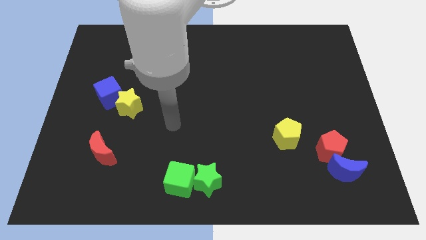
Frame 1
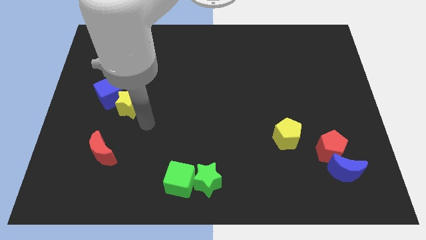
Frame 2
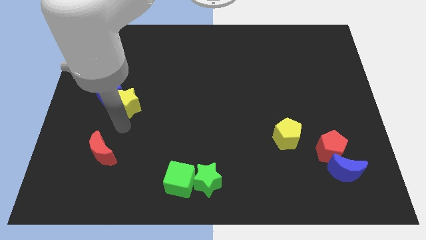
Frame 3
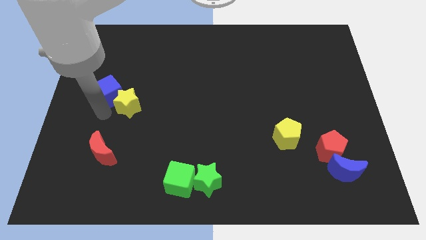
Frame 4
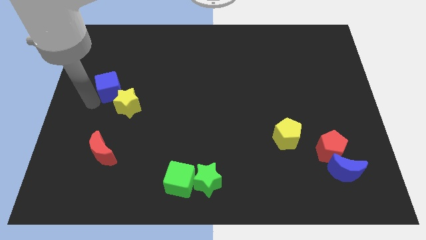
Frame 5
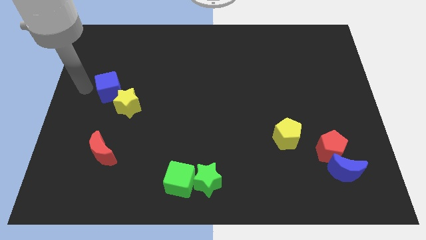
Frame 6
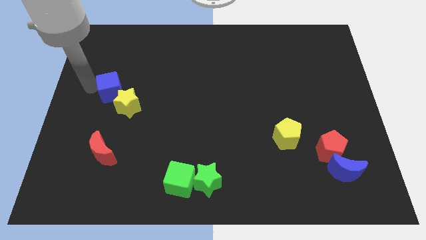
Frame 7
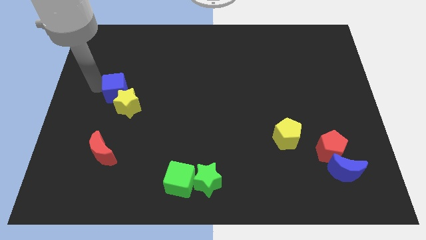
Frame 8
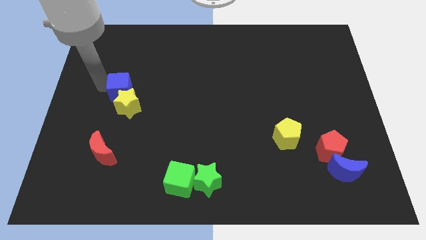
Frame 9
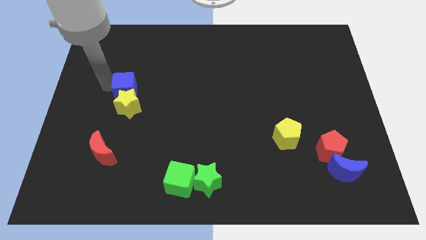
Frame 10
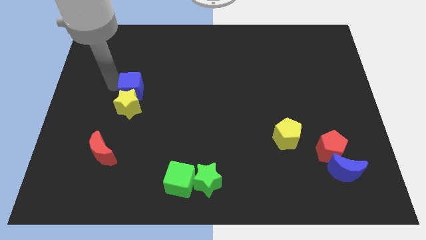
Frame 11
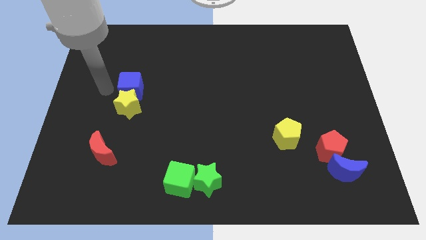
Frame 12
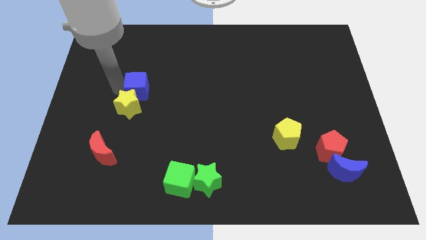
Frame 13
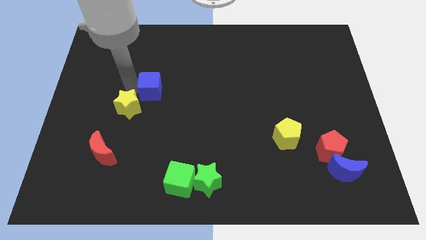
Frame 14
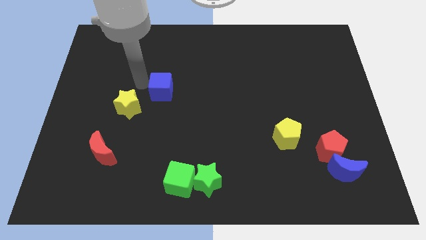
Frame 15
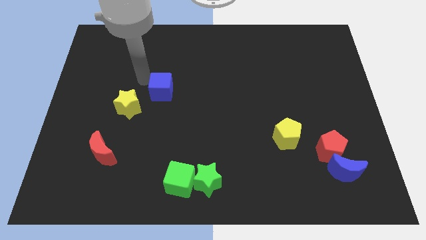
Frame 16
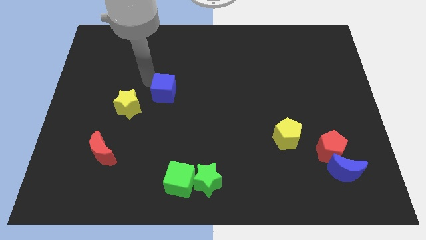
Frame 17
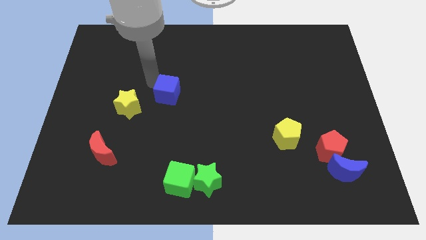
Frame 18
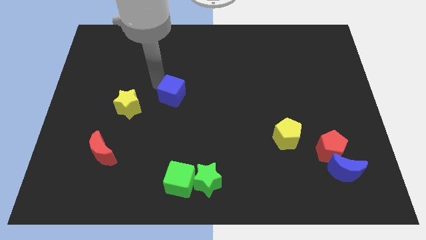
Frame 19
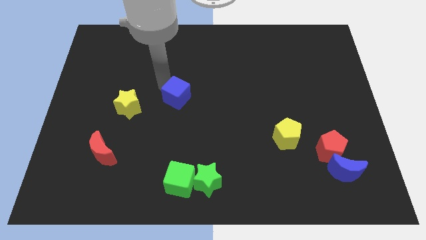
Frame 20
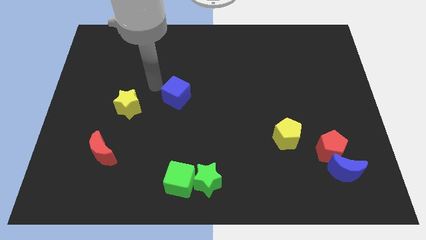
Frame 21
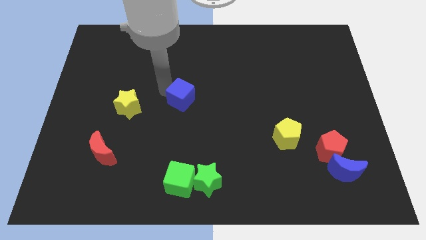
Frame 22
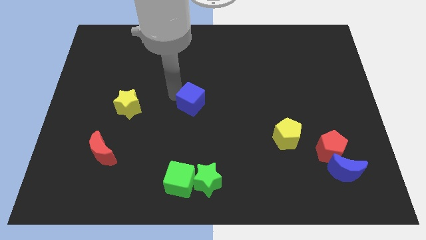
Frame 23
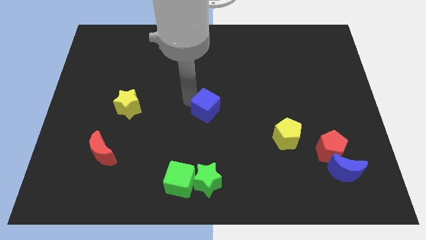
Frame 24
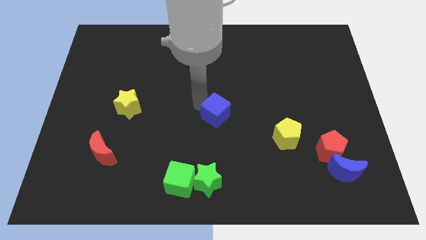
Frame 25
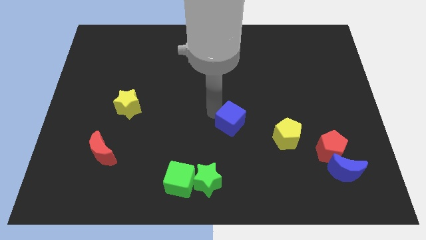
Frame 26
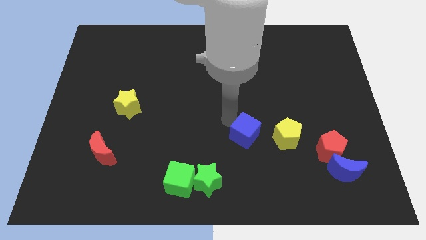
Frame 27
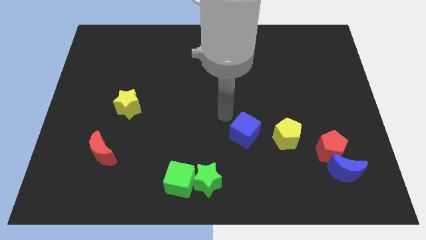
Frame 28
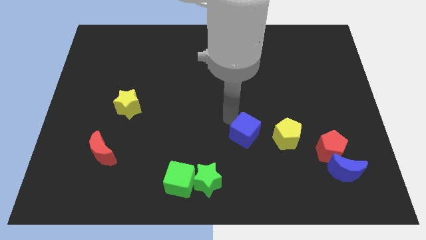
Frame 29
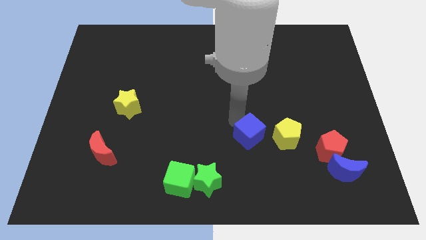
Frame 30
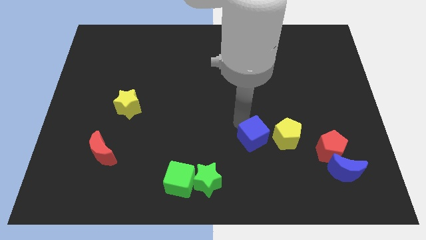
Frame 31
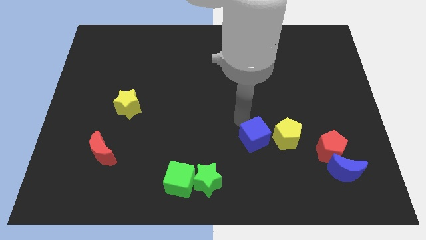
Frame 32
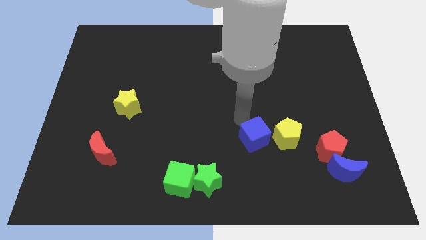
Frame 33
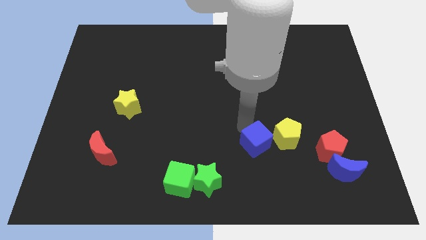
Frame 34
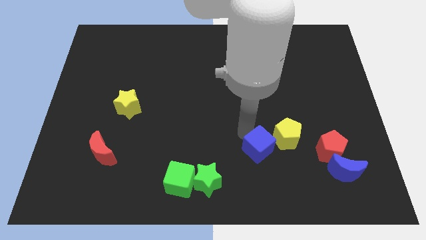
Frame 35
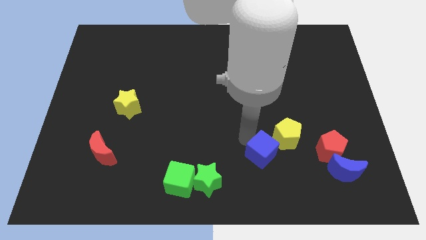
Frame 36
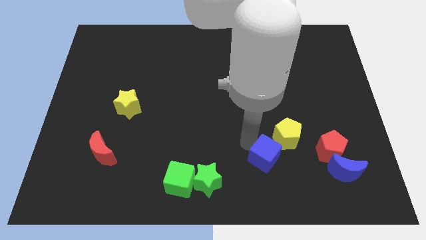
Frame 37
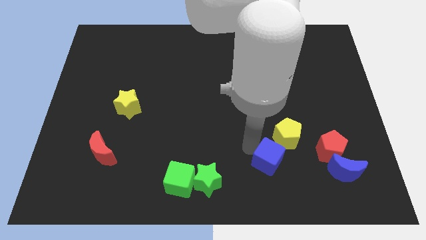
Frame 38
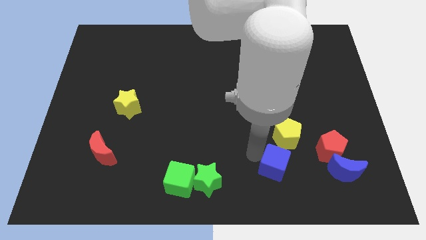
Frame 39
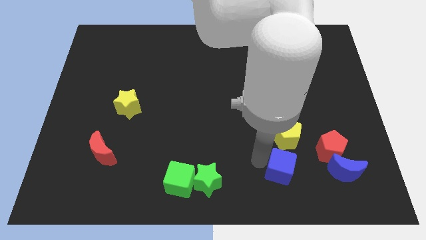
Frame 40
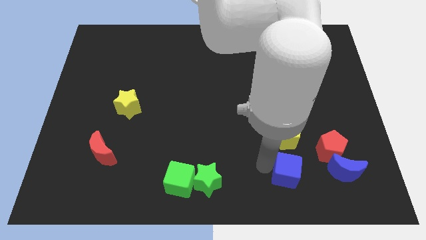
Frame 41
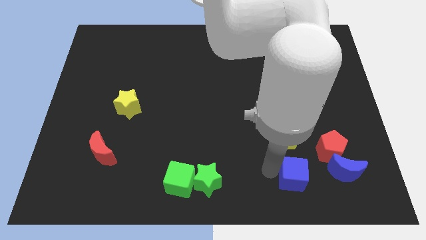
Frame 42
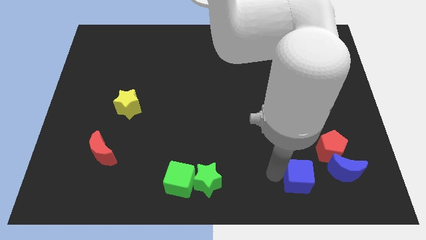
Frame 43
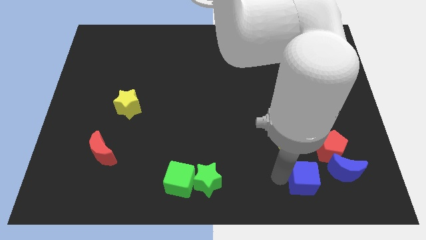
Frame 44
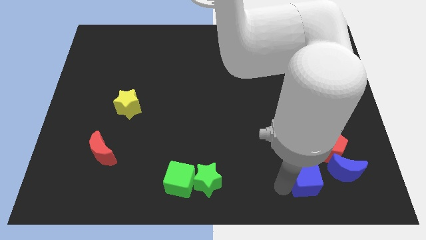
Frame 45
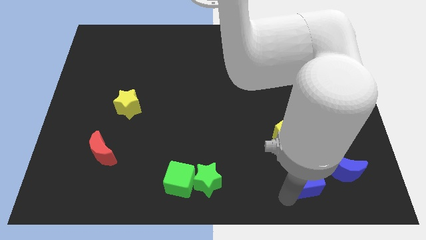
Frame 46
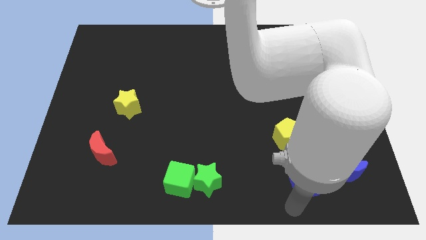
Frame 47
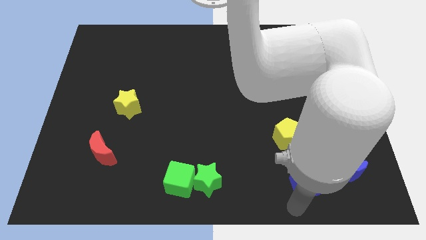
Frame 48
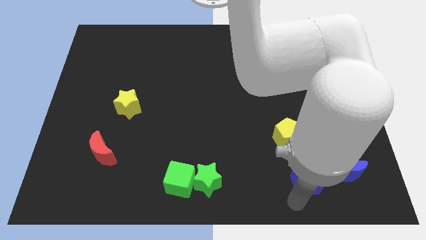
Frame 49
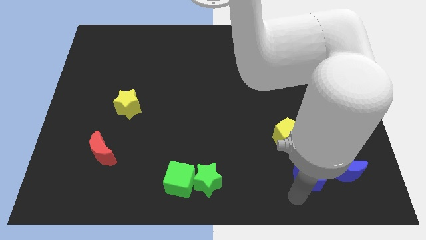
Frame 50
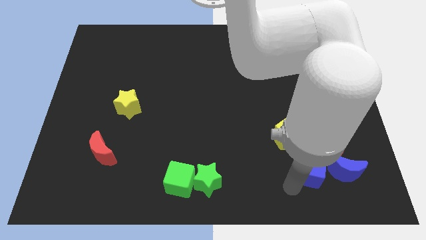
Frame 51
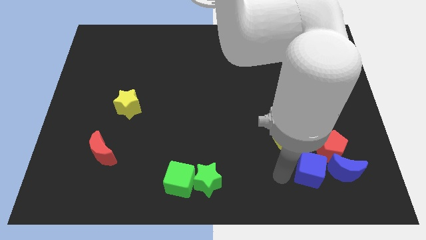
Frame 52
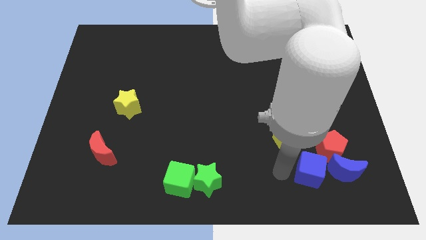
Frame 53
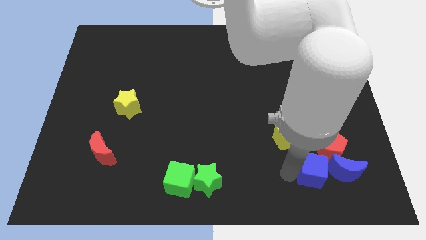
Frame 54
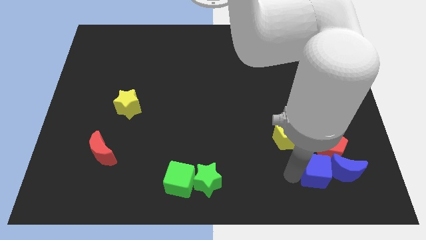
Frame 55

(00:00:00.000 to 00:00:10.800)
push the blue cube close to the blue moon

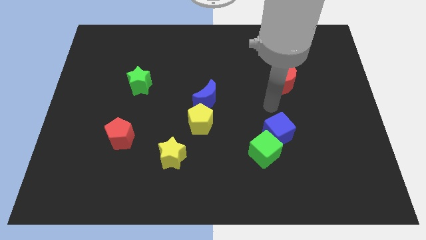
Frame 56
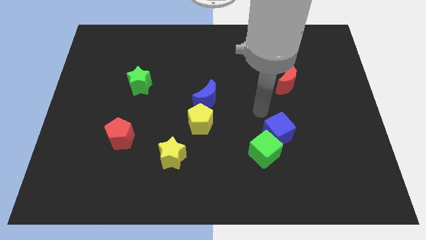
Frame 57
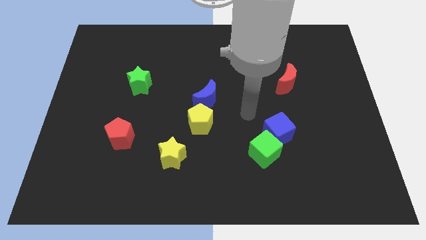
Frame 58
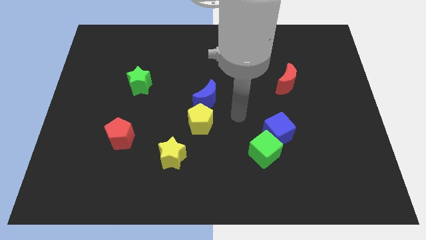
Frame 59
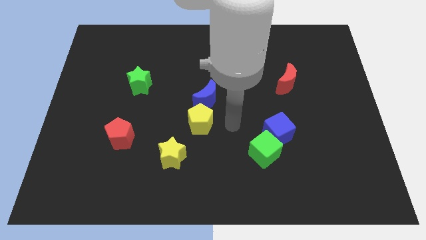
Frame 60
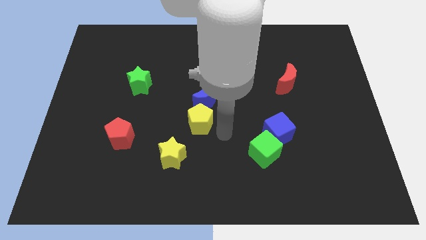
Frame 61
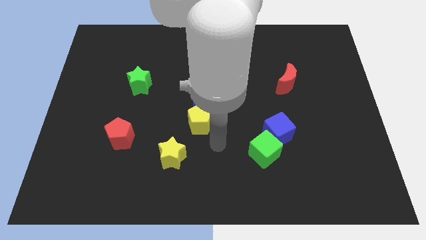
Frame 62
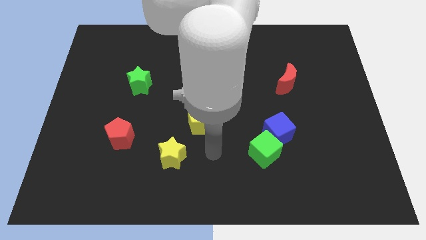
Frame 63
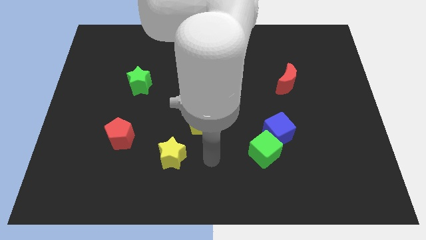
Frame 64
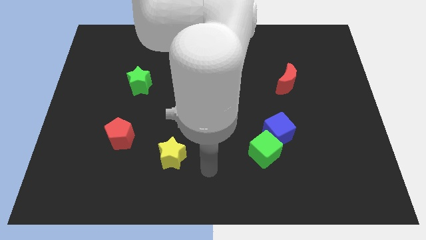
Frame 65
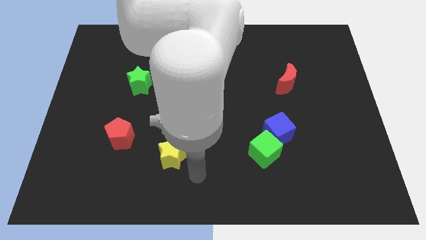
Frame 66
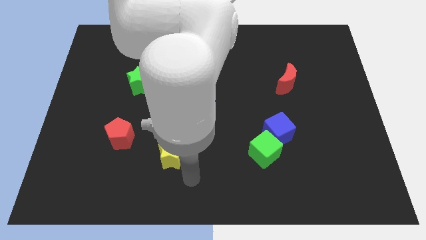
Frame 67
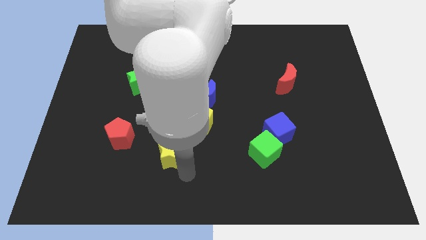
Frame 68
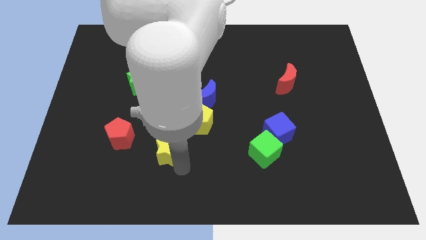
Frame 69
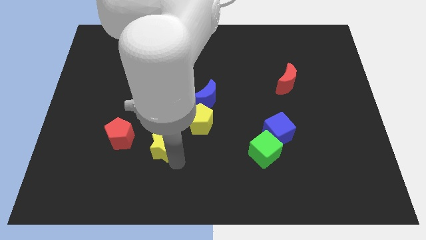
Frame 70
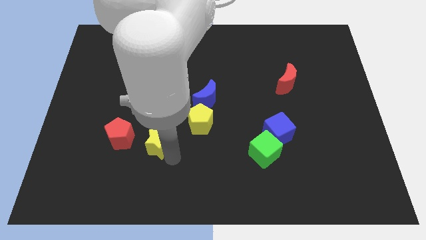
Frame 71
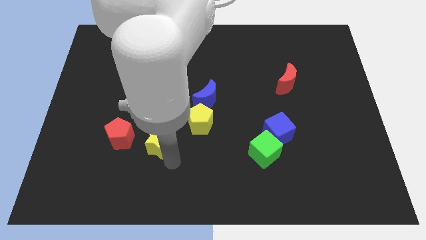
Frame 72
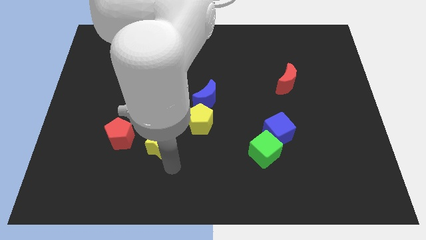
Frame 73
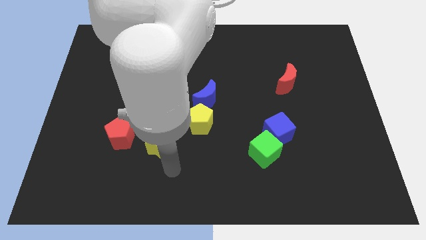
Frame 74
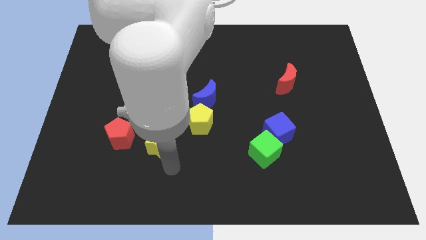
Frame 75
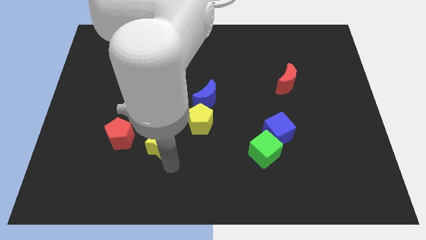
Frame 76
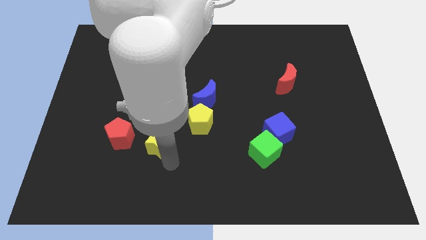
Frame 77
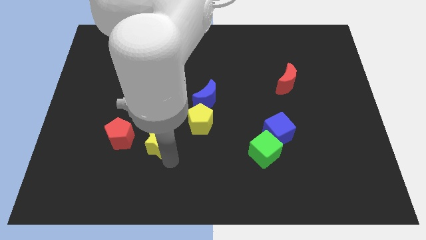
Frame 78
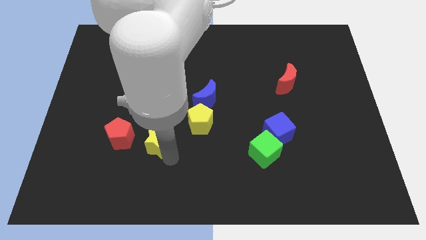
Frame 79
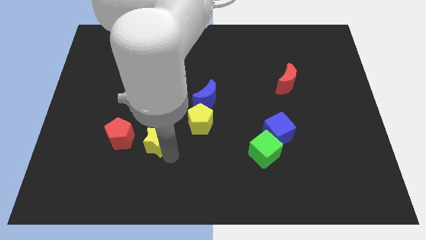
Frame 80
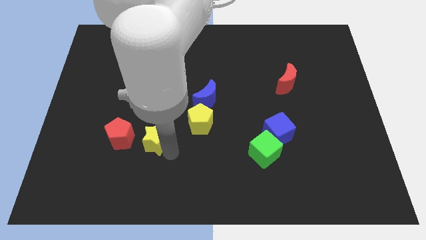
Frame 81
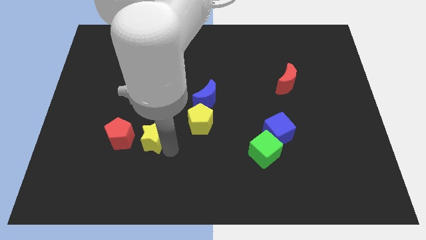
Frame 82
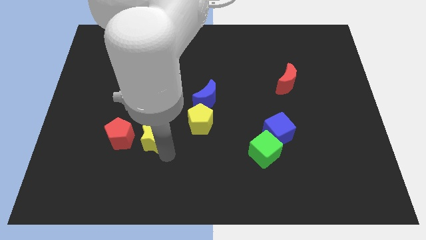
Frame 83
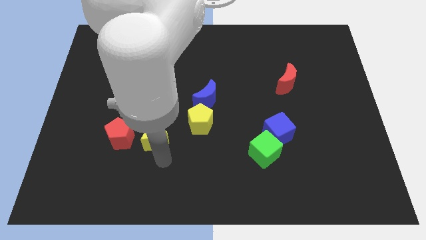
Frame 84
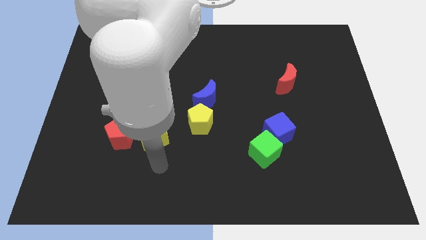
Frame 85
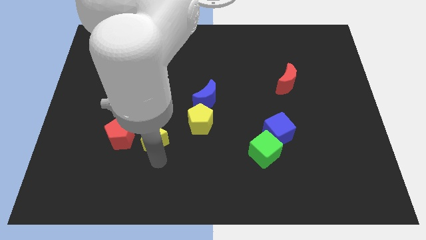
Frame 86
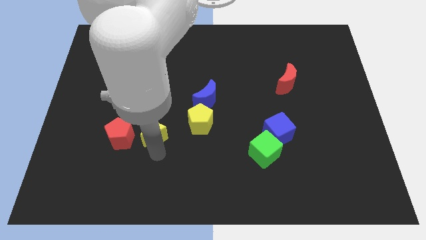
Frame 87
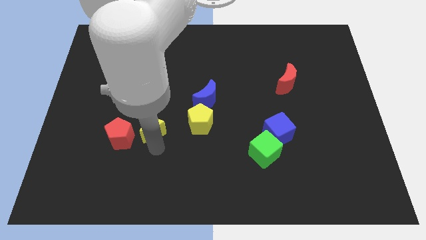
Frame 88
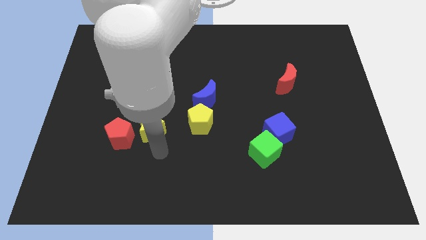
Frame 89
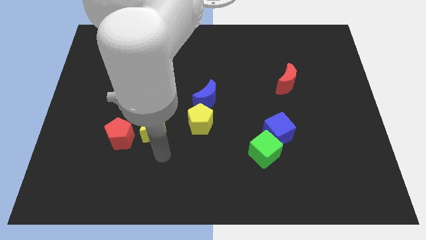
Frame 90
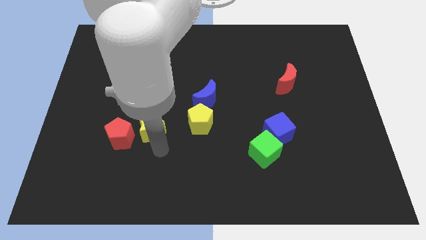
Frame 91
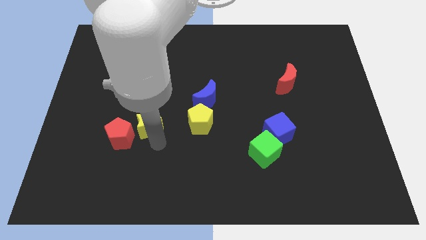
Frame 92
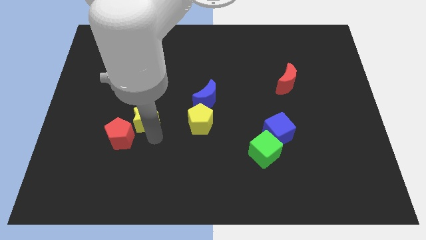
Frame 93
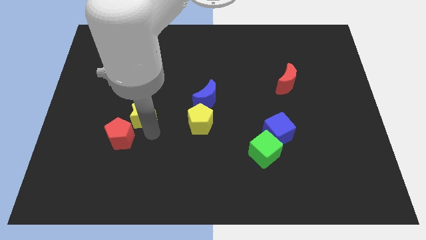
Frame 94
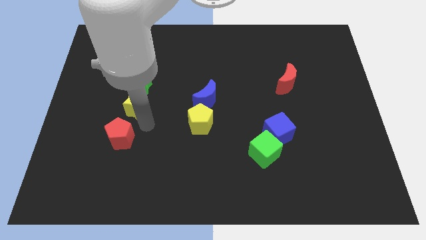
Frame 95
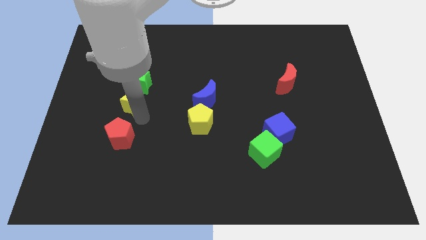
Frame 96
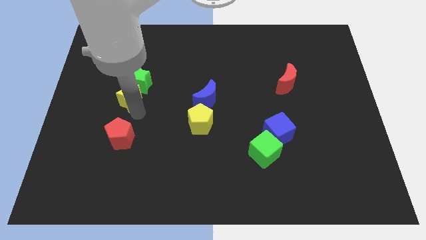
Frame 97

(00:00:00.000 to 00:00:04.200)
push the yellow star towards the green star
